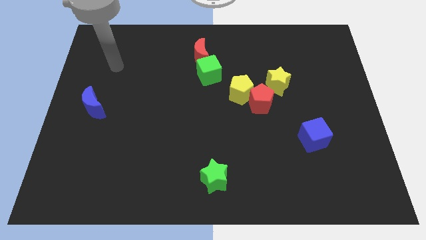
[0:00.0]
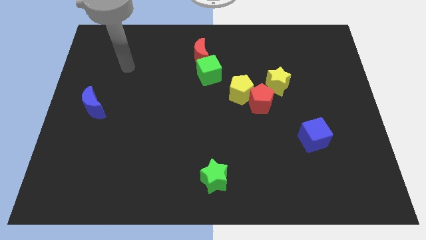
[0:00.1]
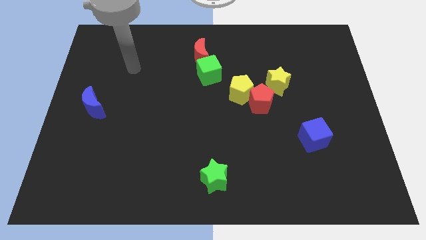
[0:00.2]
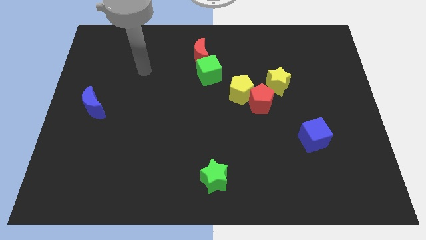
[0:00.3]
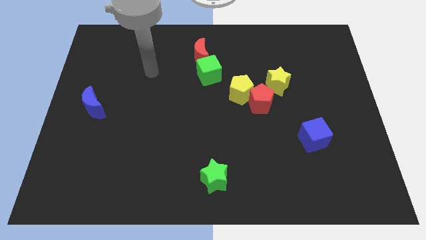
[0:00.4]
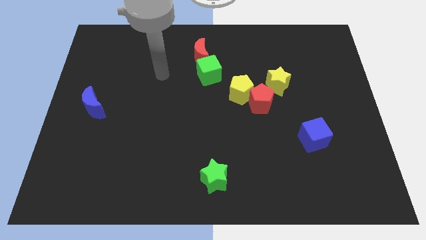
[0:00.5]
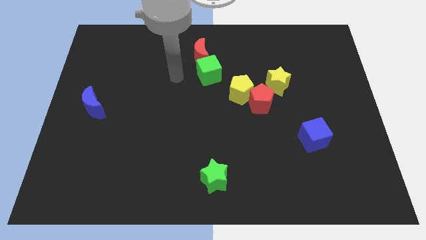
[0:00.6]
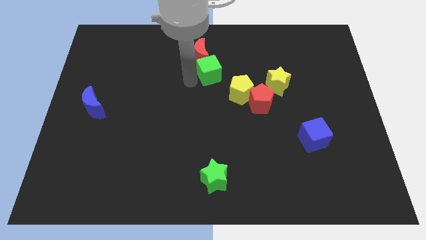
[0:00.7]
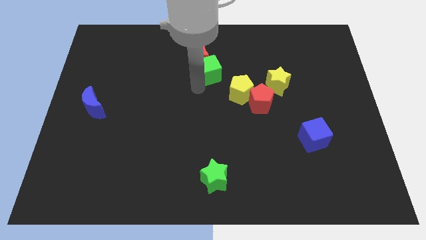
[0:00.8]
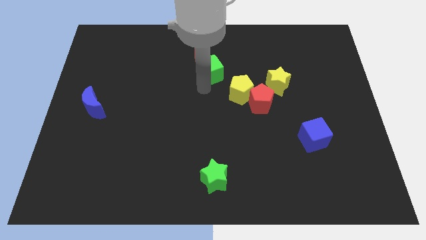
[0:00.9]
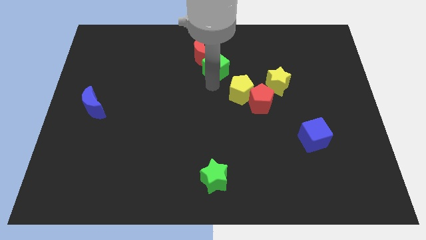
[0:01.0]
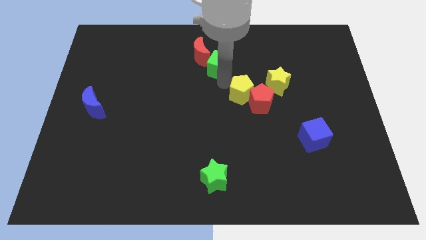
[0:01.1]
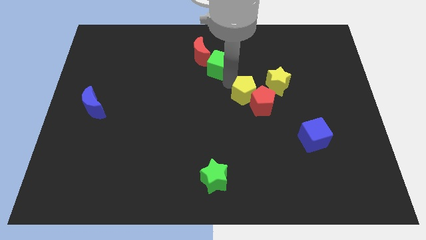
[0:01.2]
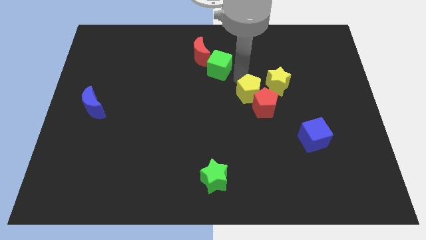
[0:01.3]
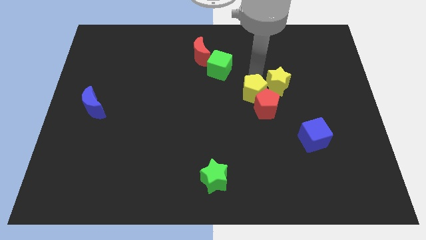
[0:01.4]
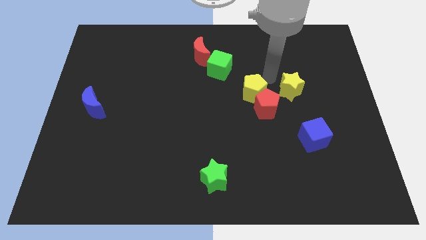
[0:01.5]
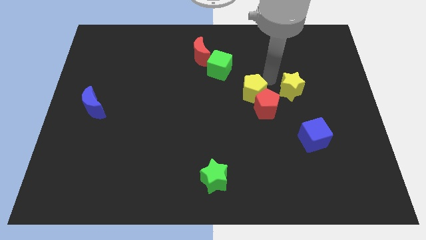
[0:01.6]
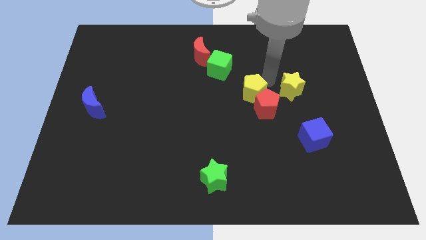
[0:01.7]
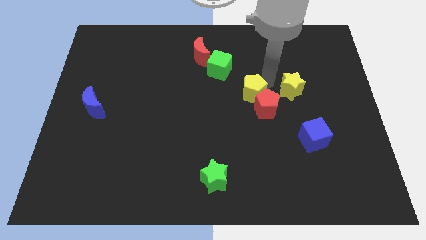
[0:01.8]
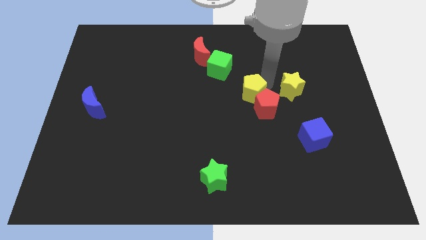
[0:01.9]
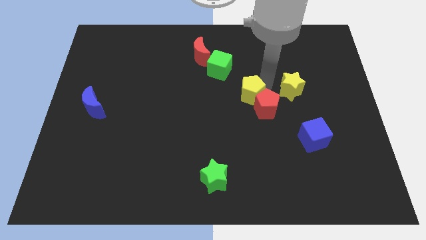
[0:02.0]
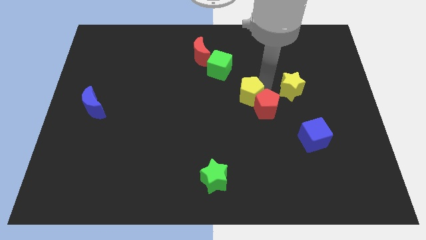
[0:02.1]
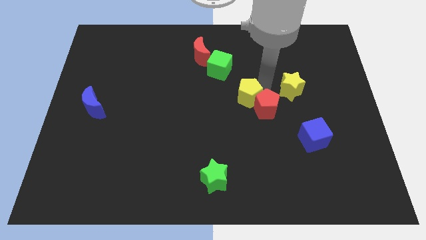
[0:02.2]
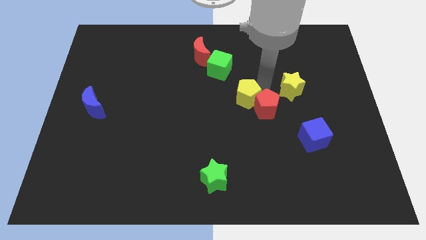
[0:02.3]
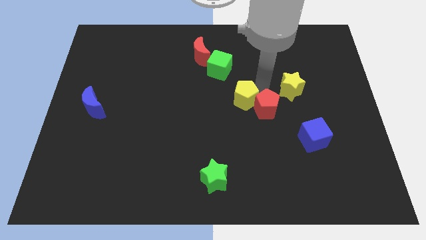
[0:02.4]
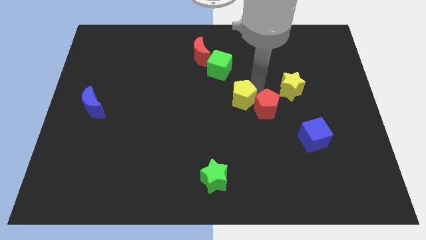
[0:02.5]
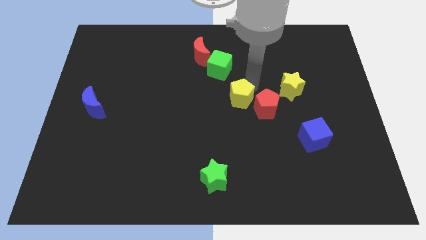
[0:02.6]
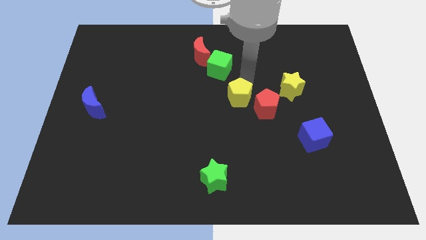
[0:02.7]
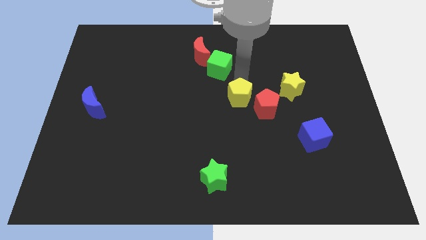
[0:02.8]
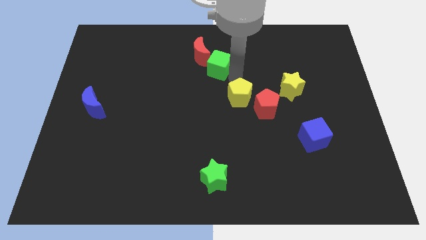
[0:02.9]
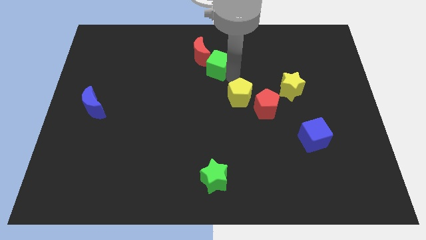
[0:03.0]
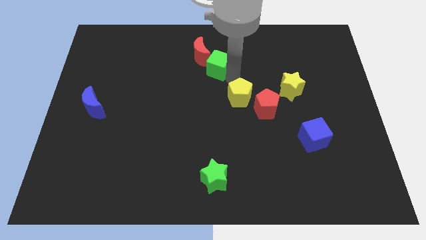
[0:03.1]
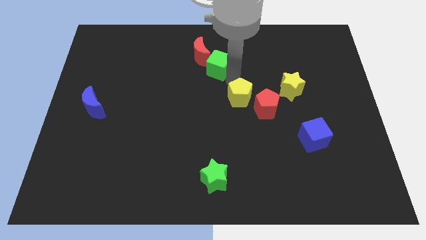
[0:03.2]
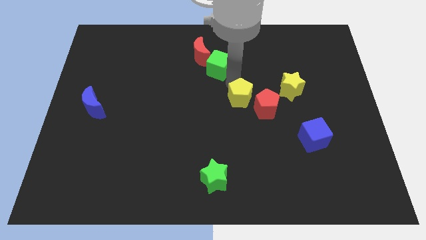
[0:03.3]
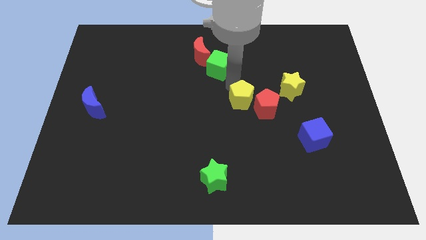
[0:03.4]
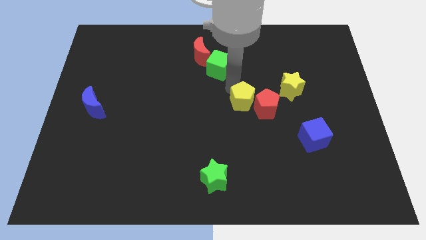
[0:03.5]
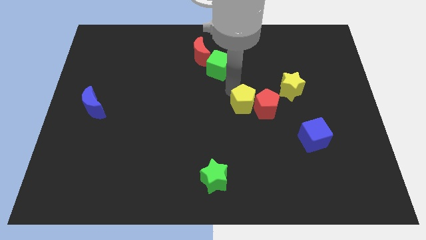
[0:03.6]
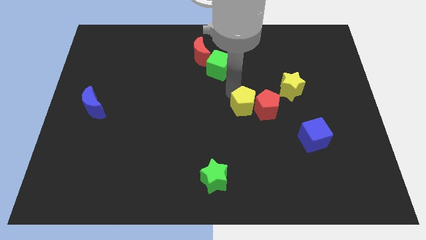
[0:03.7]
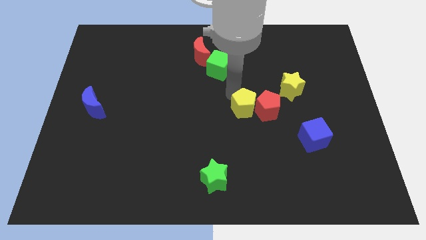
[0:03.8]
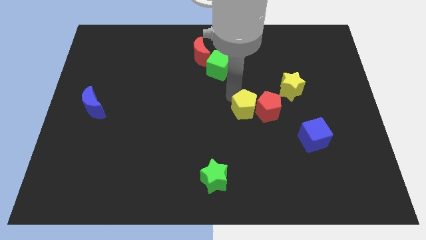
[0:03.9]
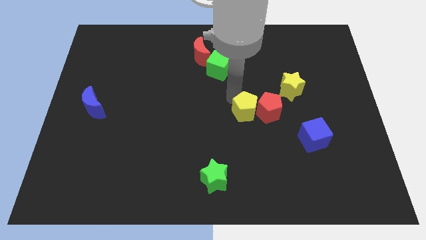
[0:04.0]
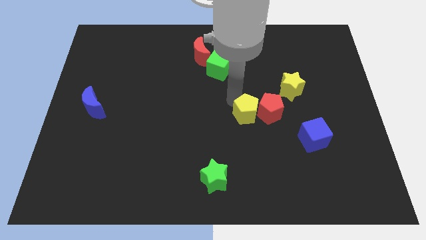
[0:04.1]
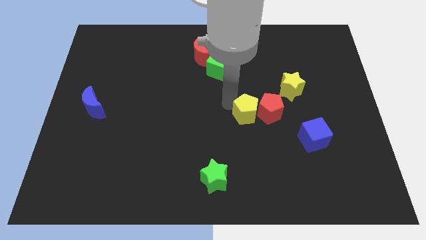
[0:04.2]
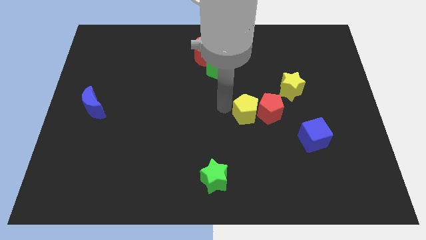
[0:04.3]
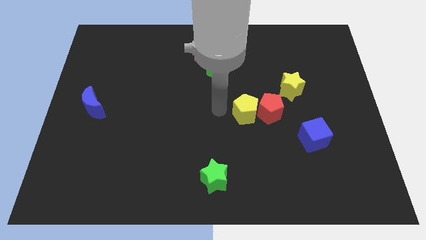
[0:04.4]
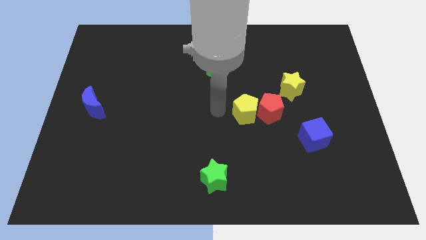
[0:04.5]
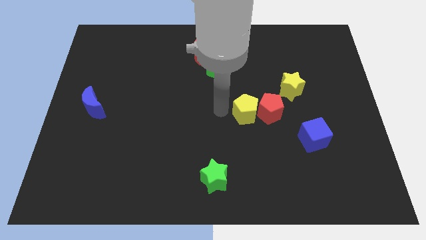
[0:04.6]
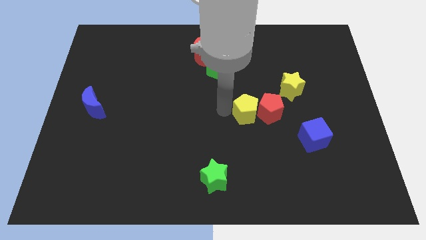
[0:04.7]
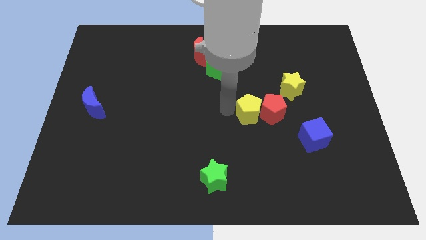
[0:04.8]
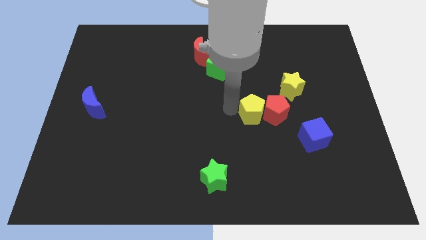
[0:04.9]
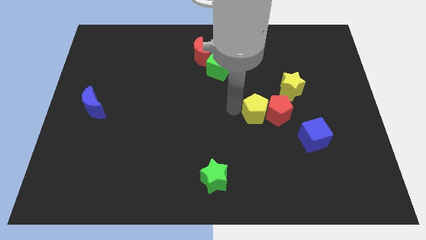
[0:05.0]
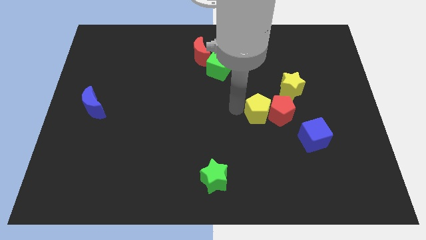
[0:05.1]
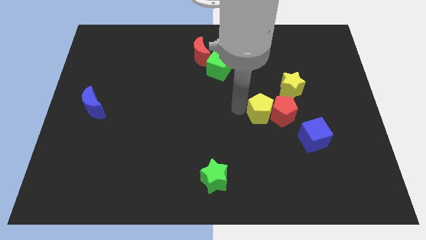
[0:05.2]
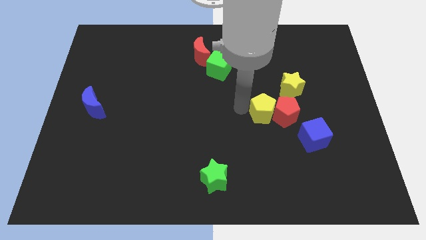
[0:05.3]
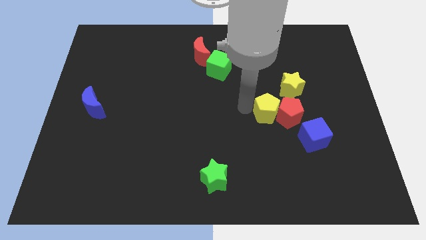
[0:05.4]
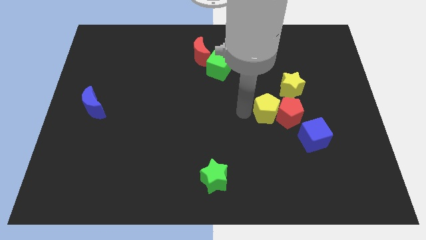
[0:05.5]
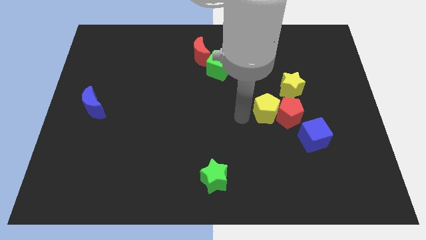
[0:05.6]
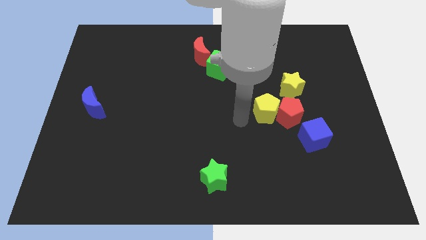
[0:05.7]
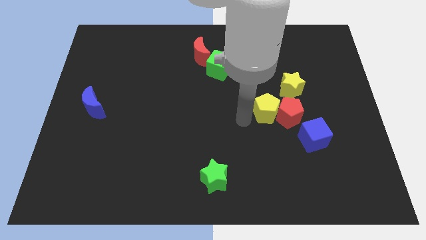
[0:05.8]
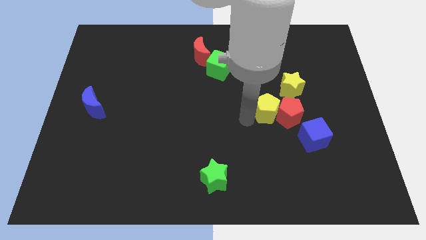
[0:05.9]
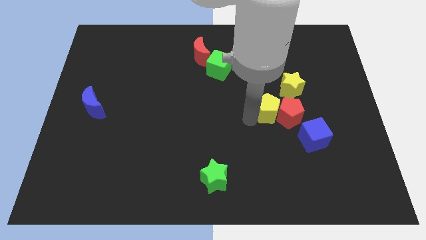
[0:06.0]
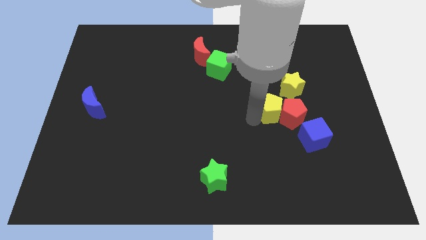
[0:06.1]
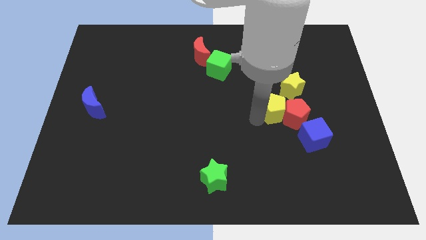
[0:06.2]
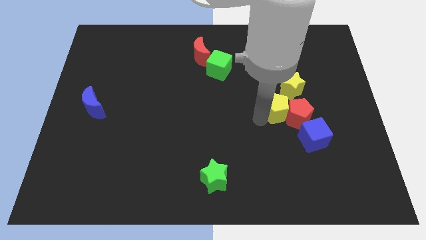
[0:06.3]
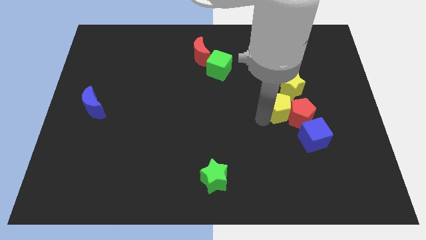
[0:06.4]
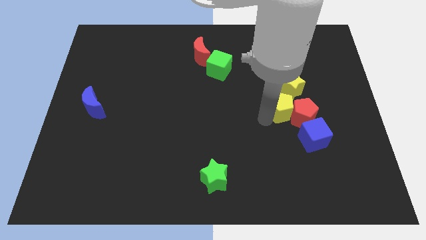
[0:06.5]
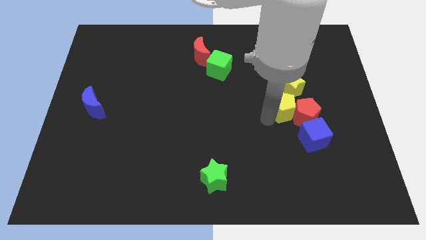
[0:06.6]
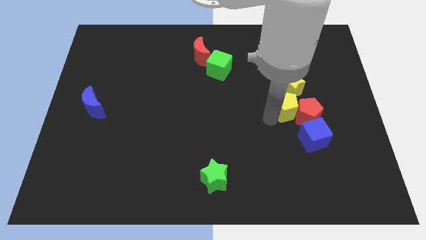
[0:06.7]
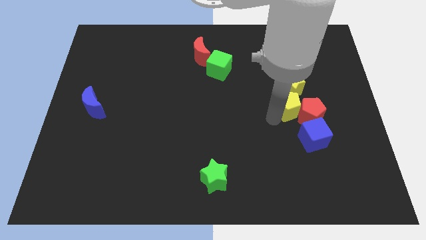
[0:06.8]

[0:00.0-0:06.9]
slide the yellow pentagon above the blue cube

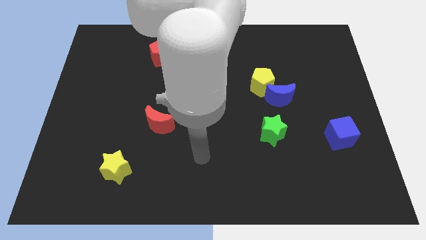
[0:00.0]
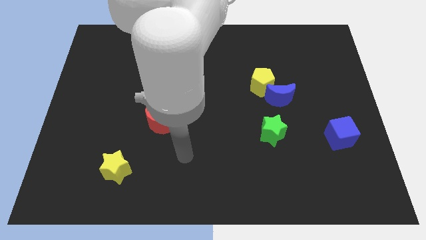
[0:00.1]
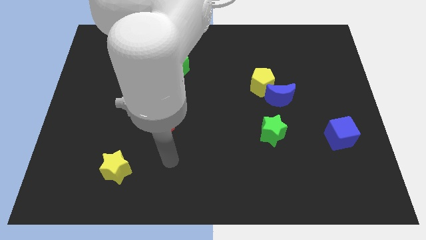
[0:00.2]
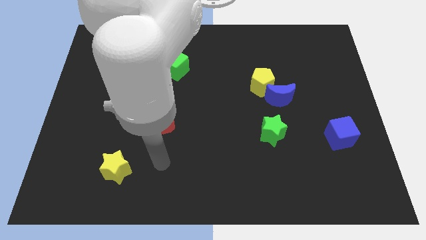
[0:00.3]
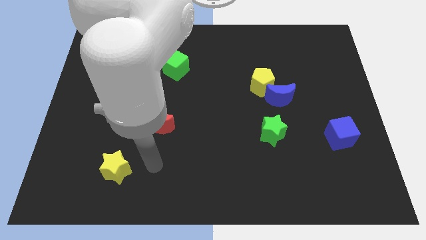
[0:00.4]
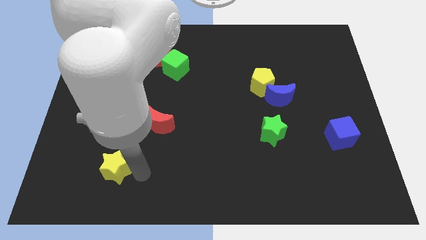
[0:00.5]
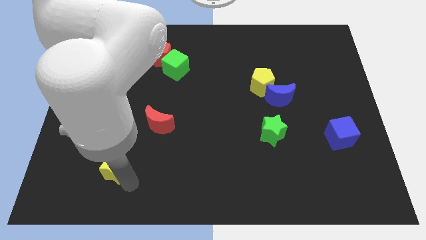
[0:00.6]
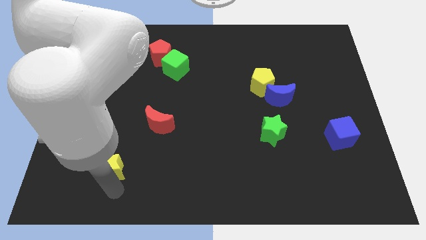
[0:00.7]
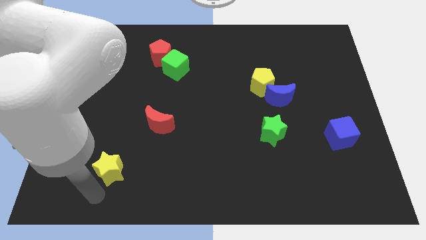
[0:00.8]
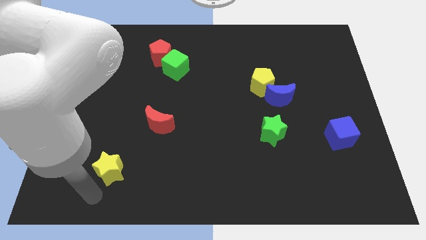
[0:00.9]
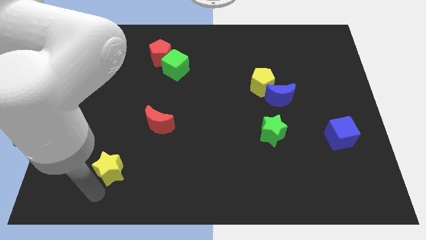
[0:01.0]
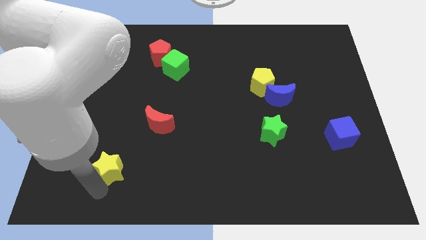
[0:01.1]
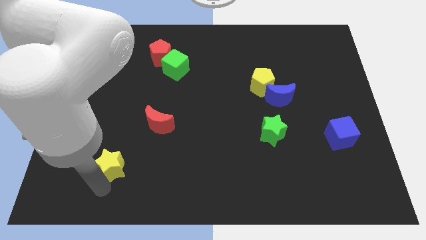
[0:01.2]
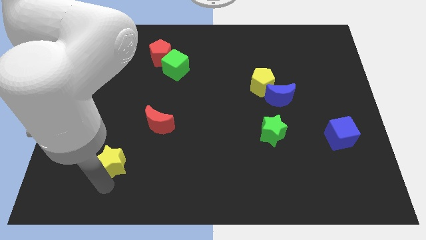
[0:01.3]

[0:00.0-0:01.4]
move the yellow star to the bottom left of the red moon
